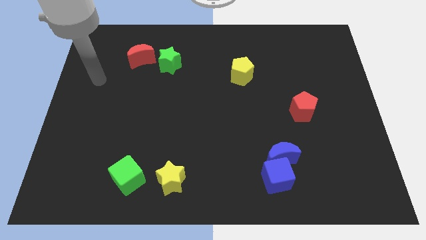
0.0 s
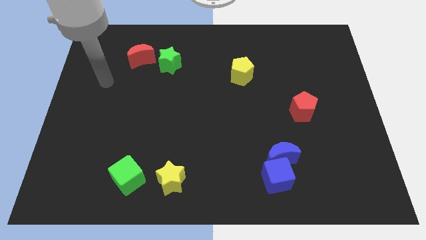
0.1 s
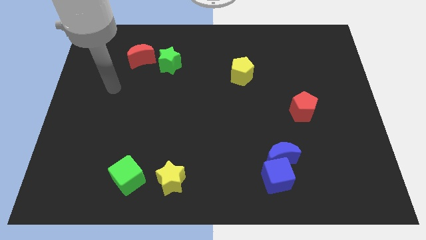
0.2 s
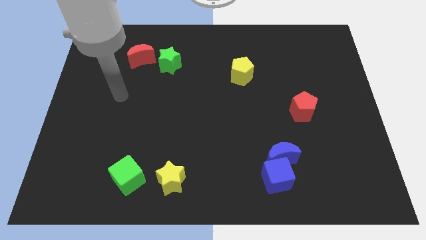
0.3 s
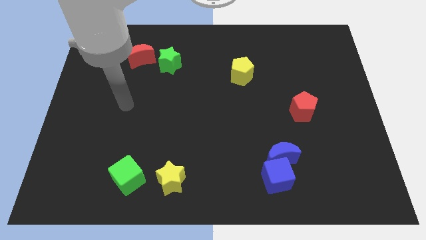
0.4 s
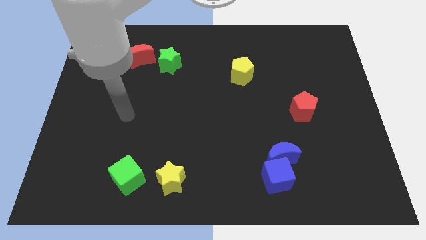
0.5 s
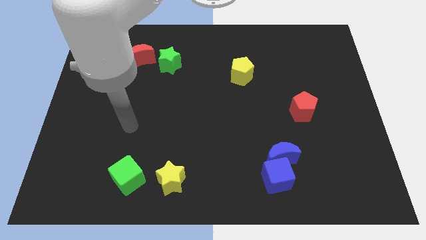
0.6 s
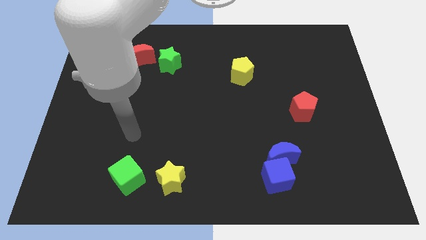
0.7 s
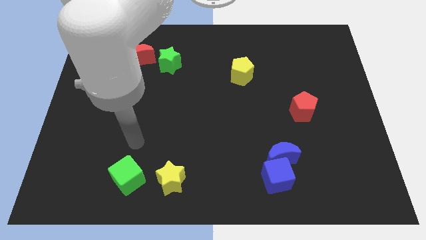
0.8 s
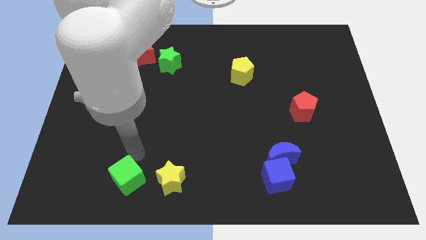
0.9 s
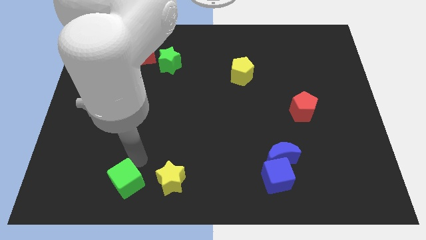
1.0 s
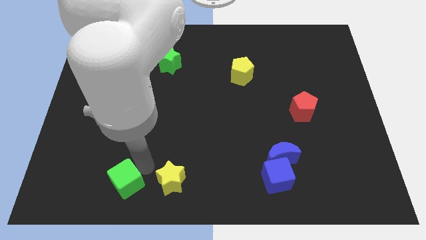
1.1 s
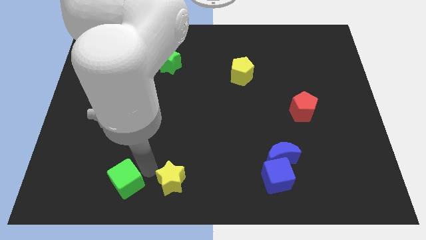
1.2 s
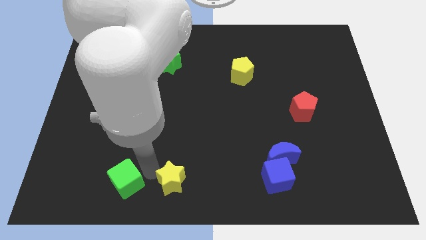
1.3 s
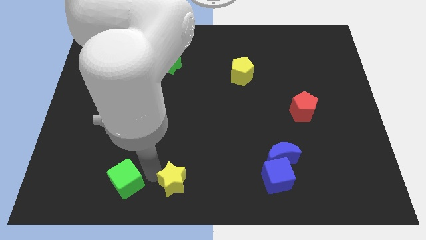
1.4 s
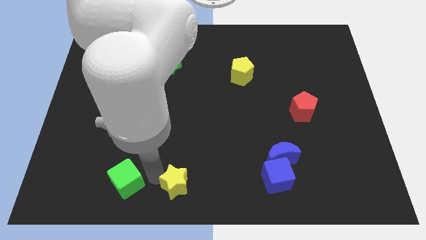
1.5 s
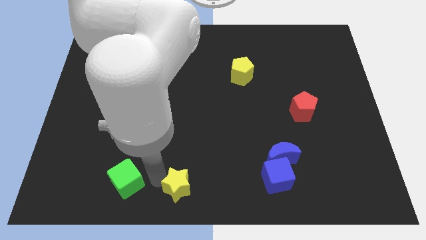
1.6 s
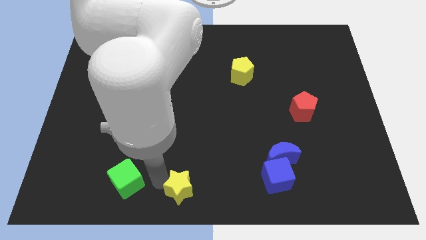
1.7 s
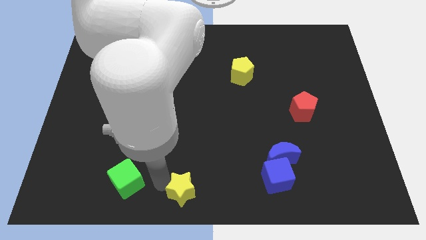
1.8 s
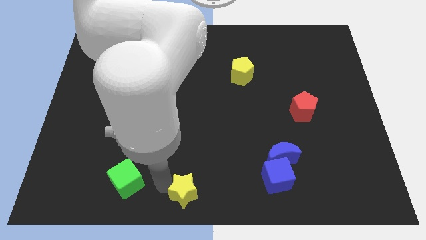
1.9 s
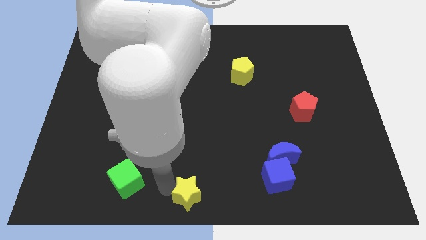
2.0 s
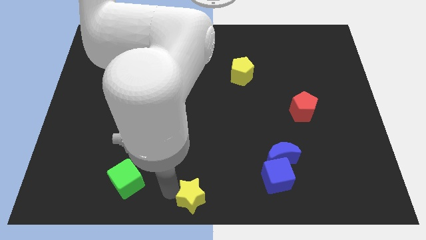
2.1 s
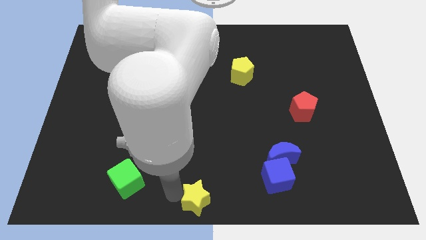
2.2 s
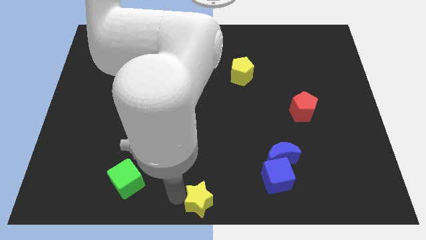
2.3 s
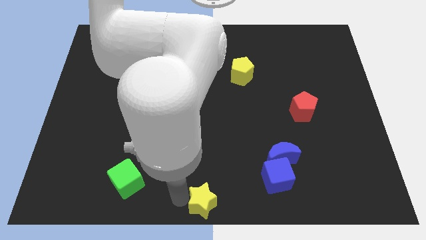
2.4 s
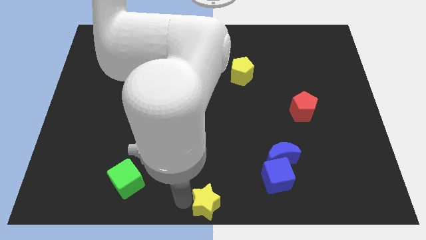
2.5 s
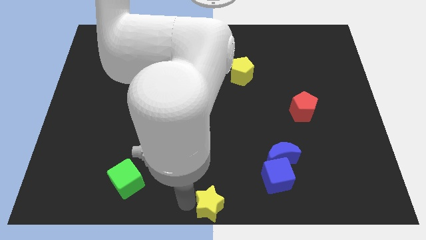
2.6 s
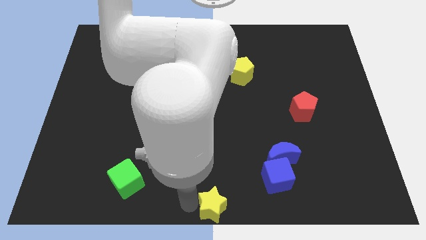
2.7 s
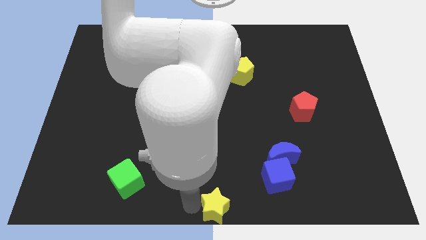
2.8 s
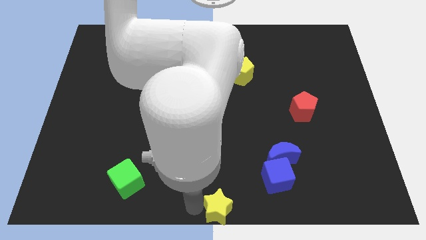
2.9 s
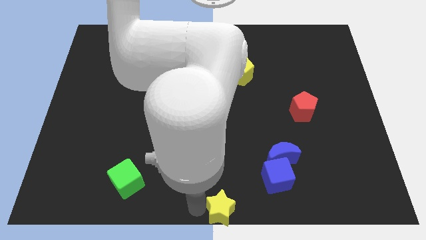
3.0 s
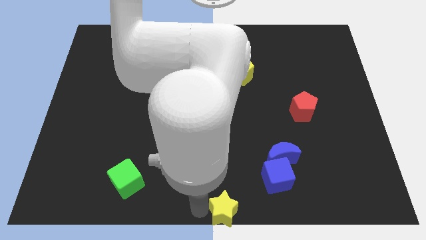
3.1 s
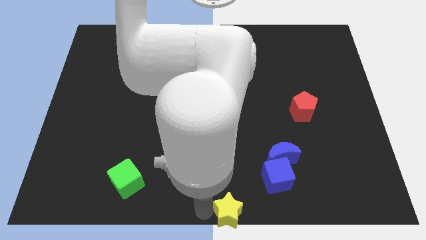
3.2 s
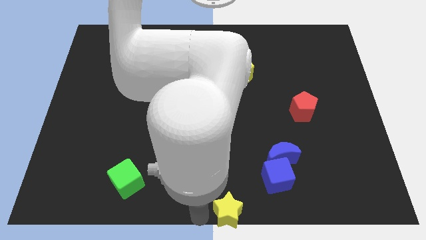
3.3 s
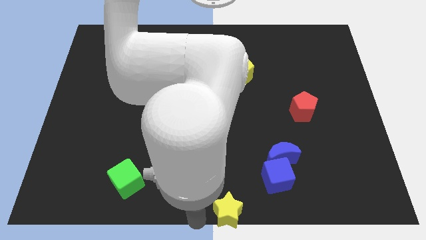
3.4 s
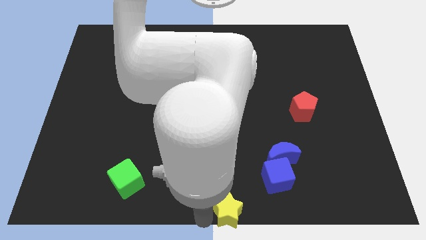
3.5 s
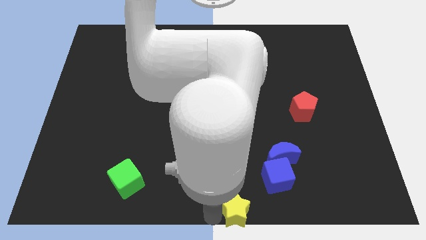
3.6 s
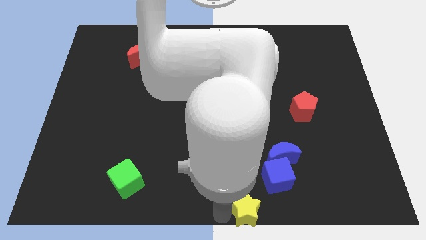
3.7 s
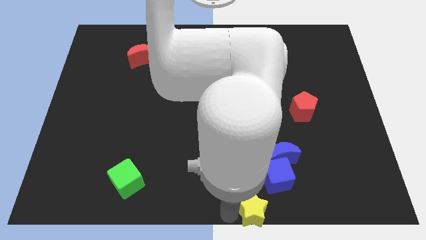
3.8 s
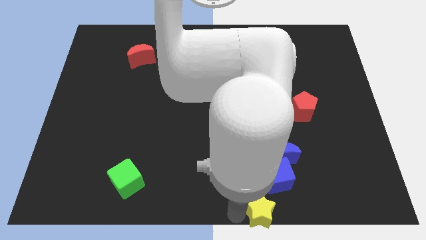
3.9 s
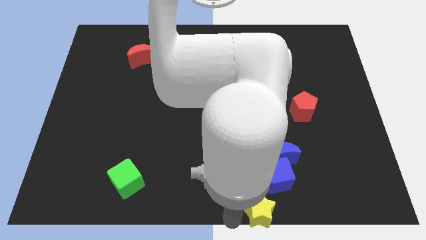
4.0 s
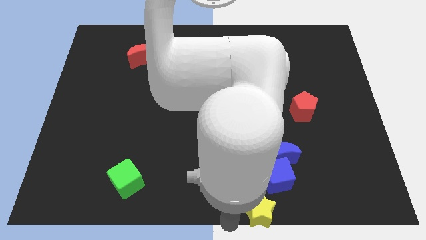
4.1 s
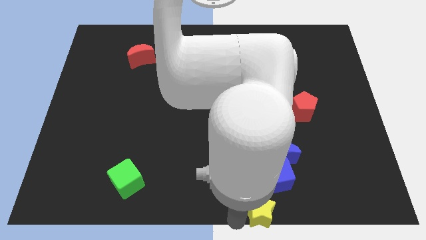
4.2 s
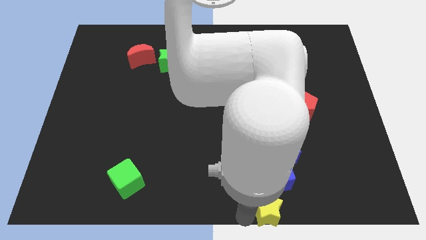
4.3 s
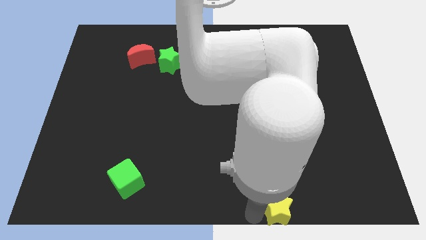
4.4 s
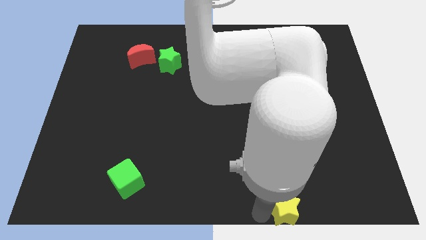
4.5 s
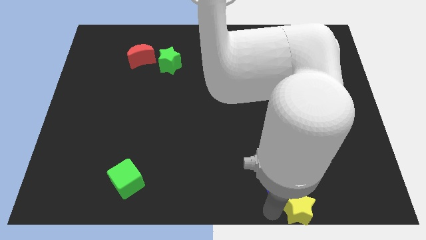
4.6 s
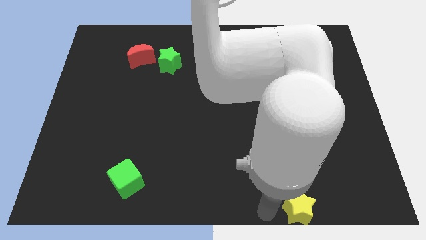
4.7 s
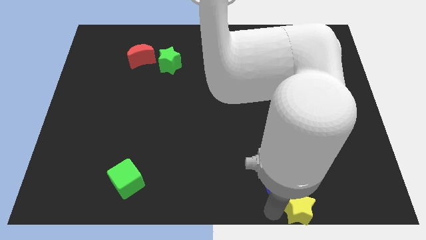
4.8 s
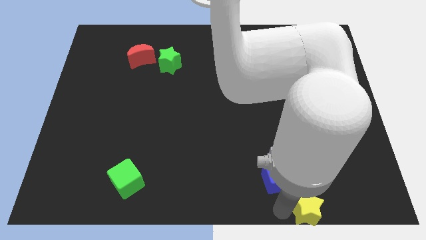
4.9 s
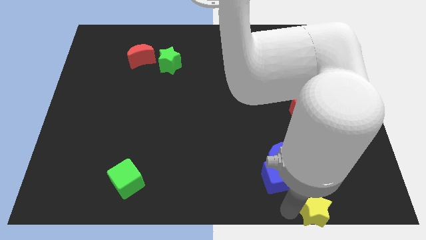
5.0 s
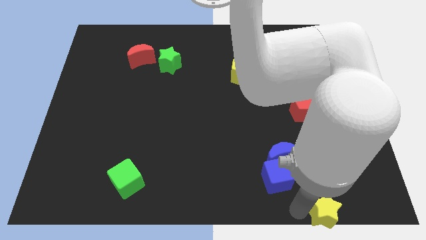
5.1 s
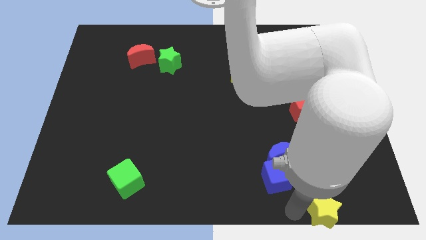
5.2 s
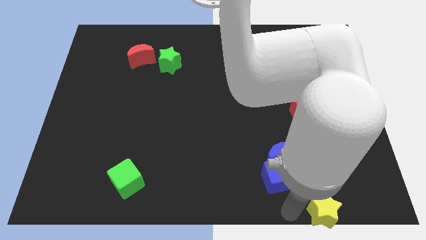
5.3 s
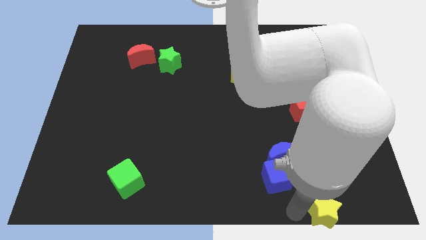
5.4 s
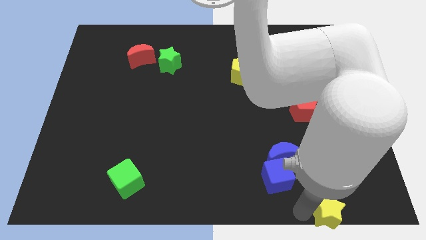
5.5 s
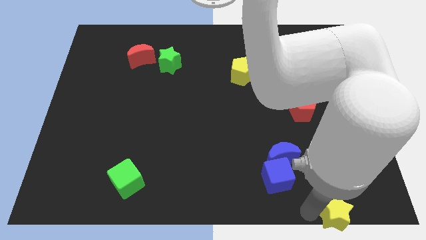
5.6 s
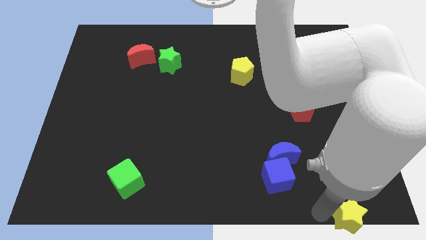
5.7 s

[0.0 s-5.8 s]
slide the yellow star to the bottom right of the board

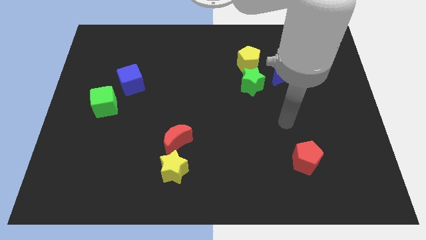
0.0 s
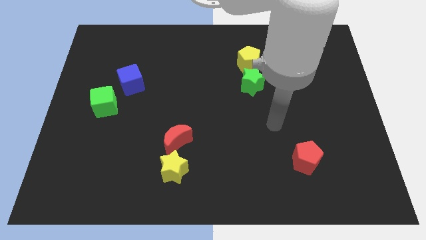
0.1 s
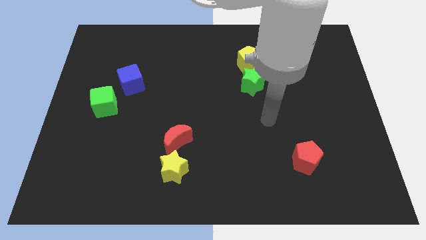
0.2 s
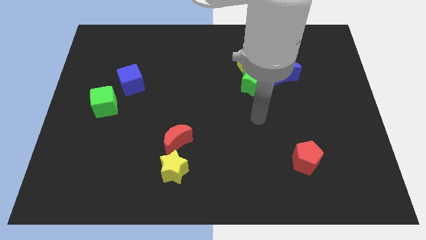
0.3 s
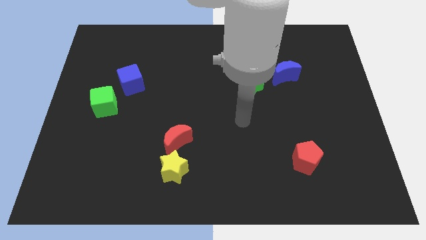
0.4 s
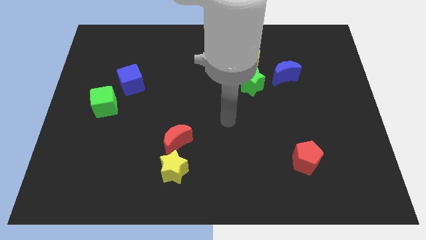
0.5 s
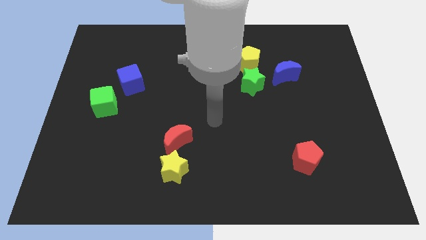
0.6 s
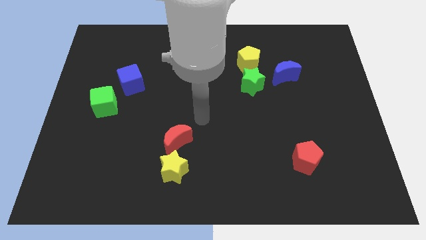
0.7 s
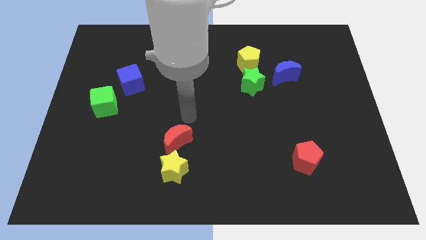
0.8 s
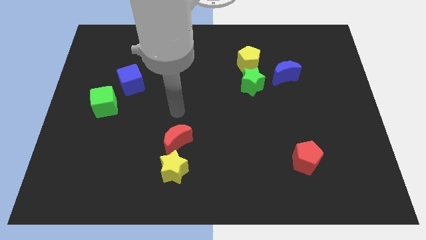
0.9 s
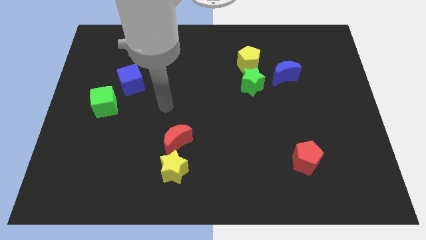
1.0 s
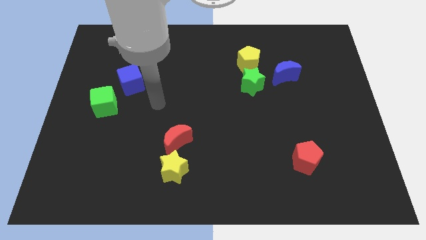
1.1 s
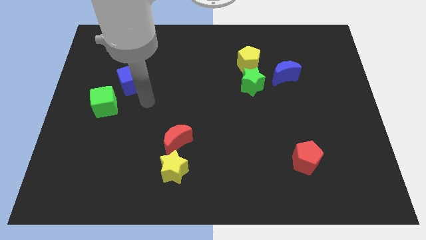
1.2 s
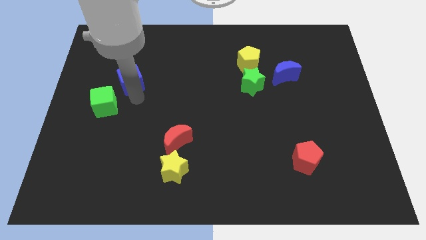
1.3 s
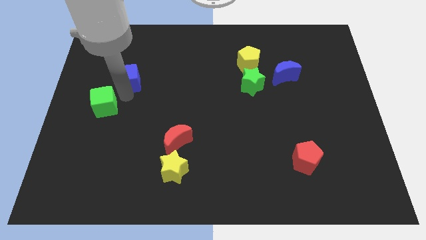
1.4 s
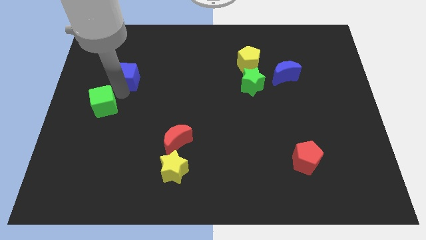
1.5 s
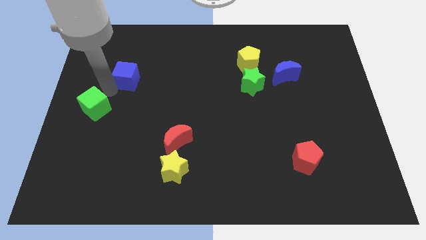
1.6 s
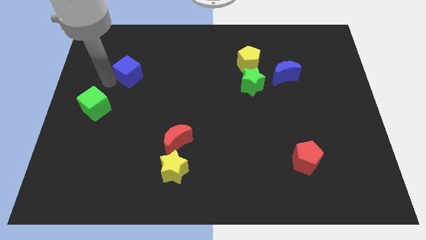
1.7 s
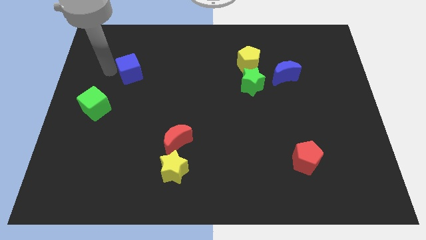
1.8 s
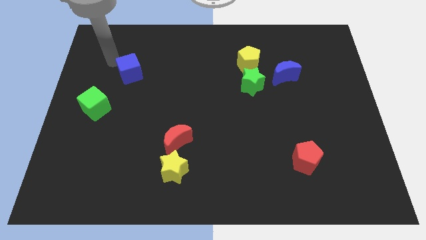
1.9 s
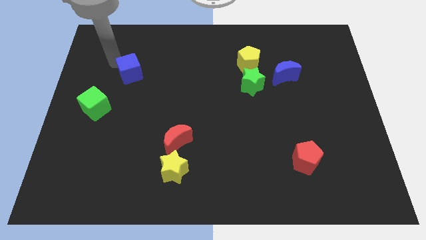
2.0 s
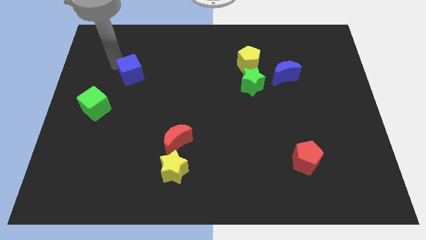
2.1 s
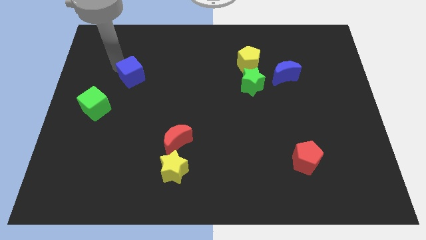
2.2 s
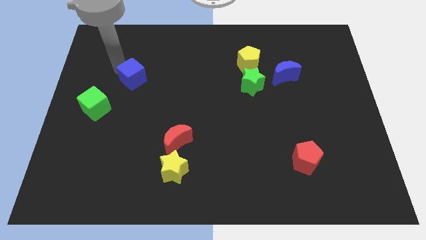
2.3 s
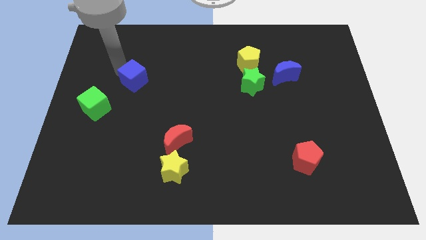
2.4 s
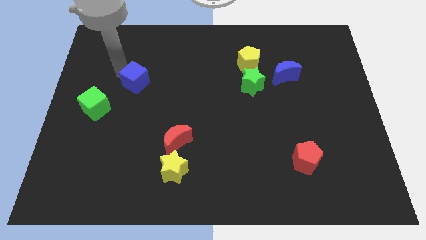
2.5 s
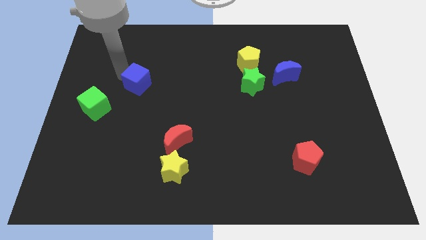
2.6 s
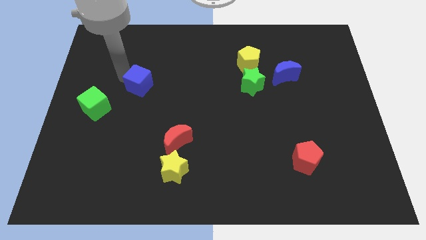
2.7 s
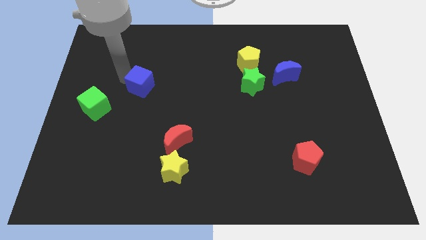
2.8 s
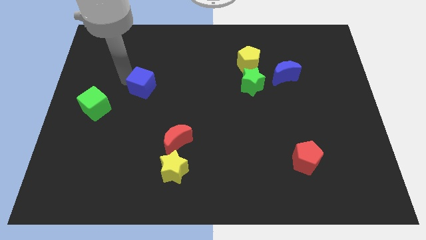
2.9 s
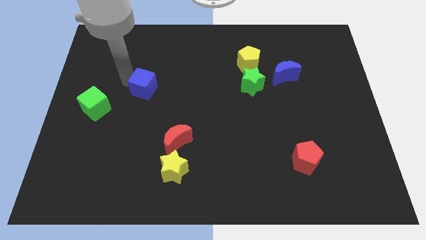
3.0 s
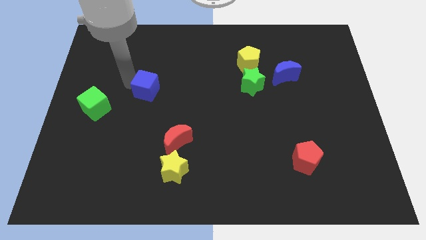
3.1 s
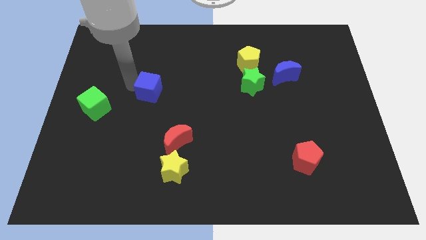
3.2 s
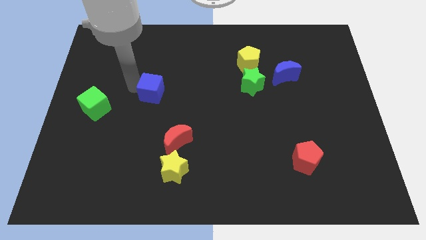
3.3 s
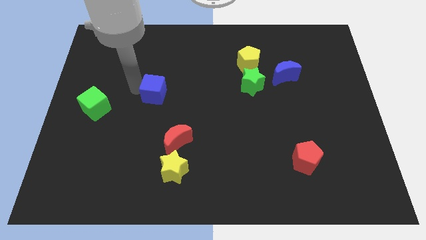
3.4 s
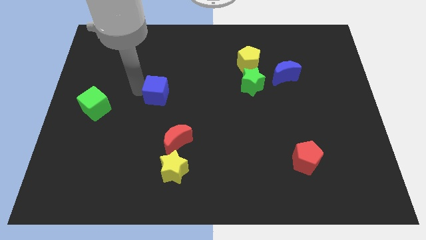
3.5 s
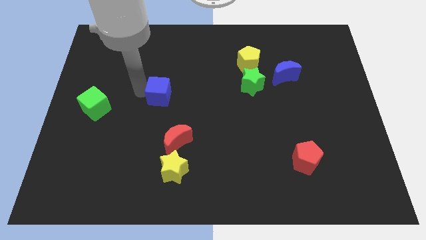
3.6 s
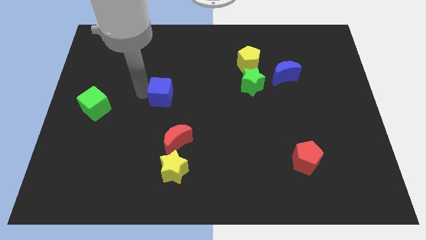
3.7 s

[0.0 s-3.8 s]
slide the blue cube to the center
